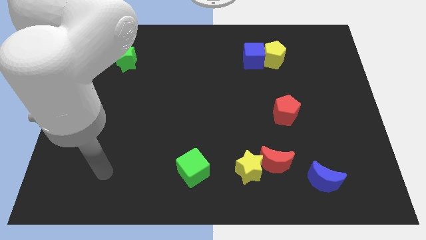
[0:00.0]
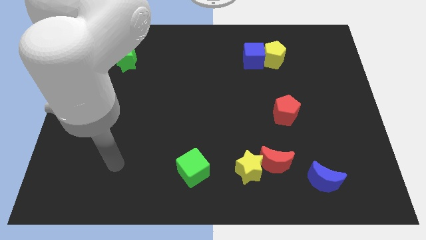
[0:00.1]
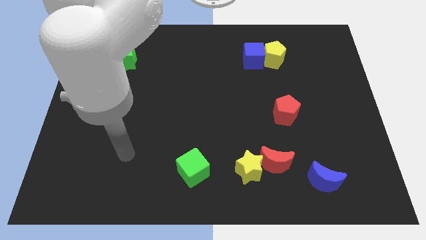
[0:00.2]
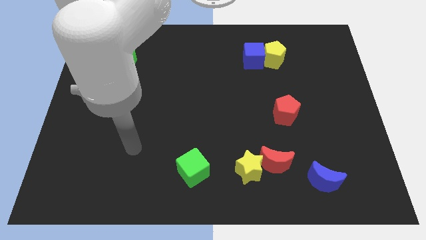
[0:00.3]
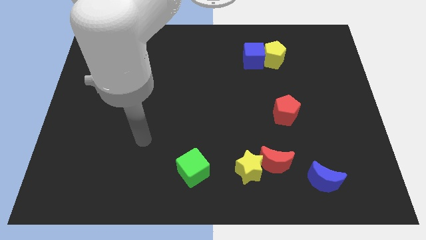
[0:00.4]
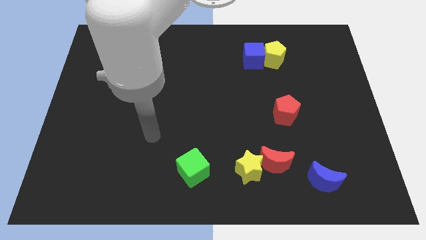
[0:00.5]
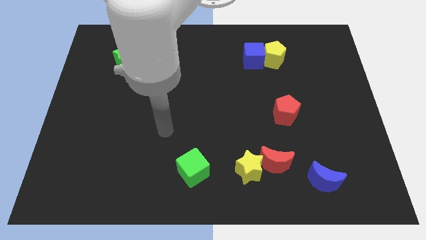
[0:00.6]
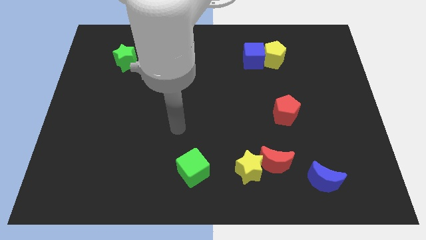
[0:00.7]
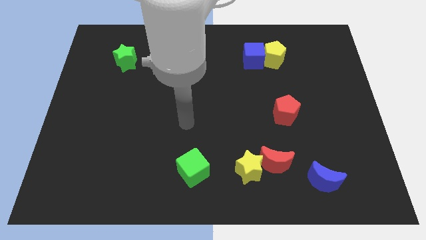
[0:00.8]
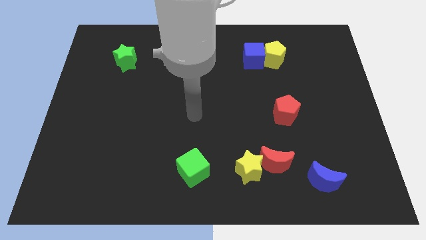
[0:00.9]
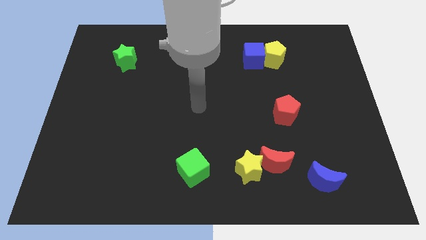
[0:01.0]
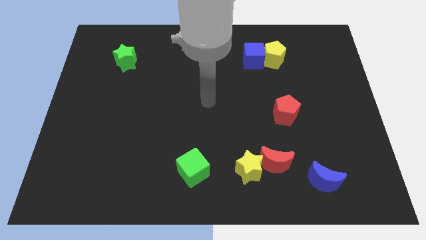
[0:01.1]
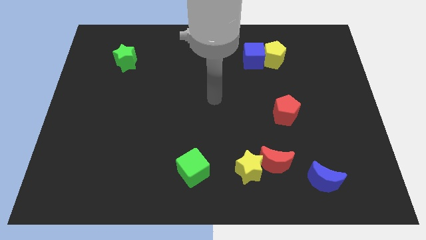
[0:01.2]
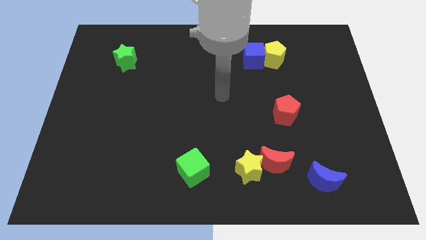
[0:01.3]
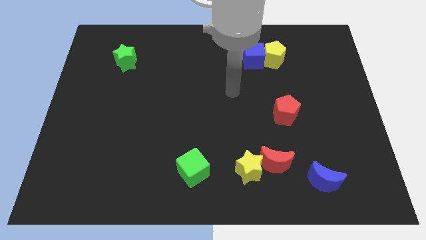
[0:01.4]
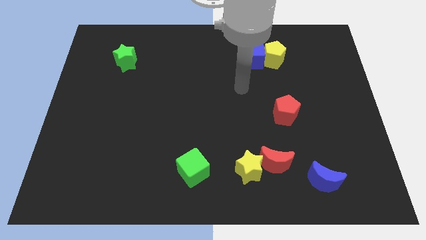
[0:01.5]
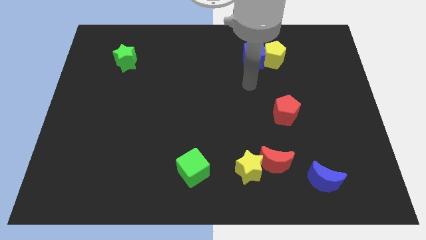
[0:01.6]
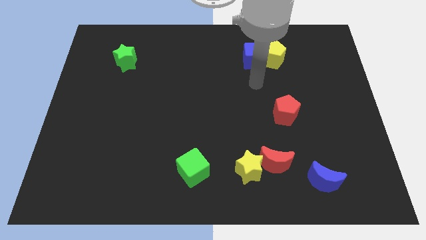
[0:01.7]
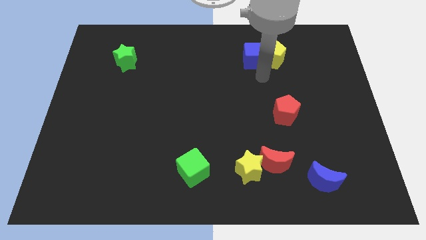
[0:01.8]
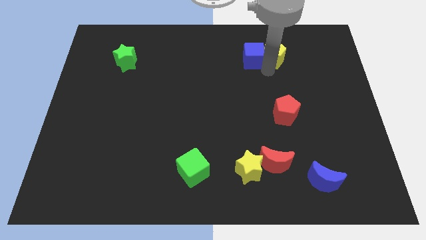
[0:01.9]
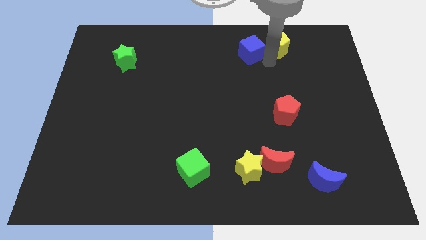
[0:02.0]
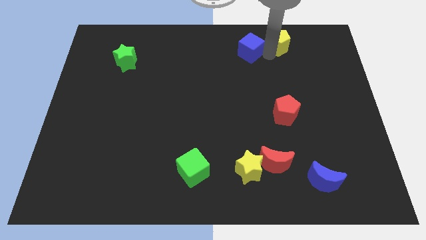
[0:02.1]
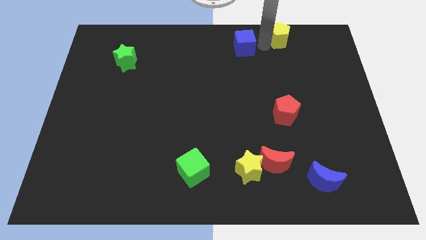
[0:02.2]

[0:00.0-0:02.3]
move the blue cube away from the yellow pentagon

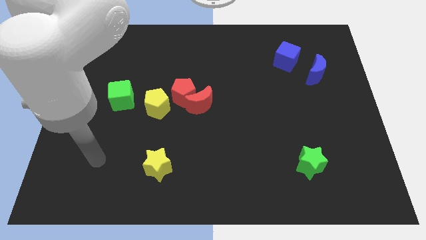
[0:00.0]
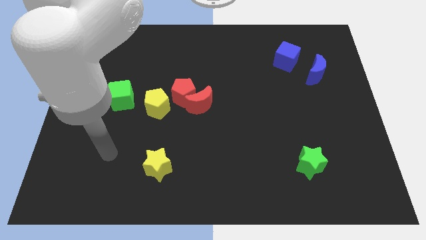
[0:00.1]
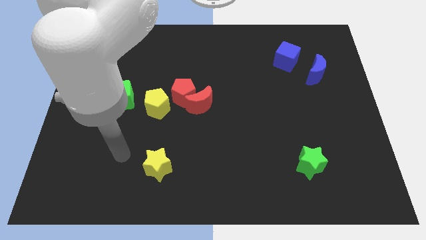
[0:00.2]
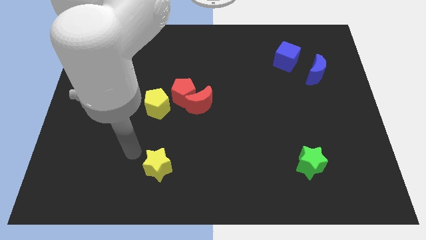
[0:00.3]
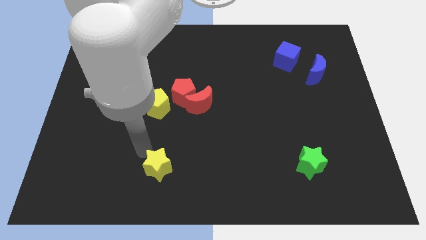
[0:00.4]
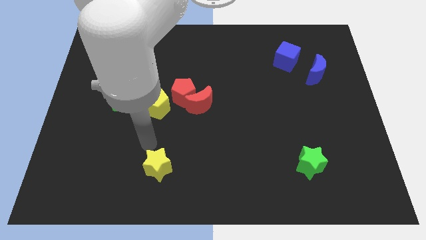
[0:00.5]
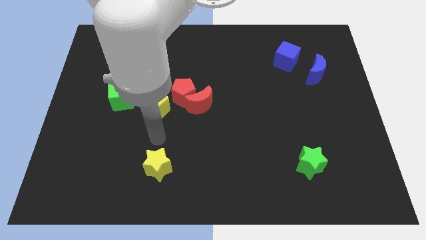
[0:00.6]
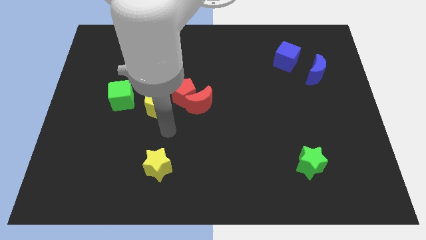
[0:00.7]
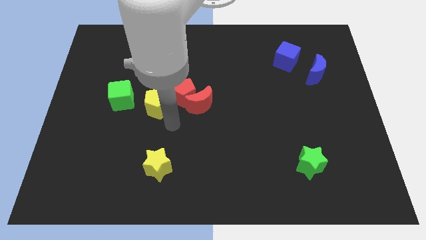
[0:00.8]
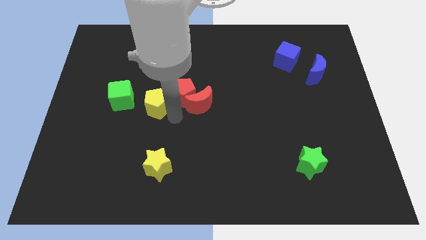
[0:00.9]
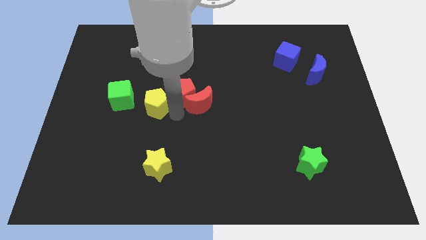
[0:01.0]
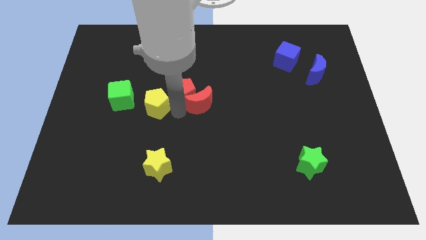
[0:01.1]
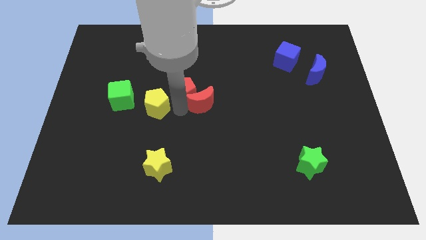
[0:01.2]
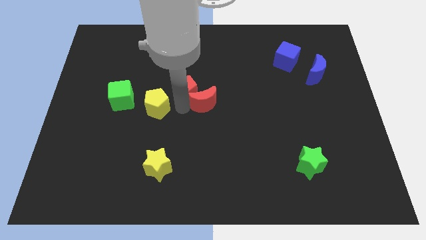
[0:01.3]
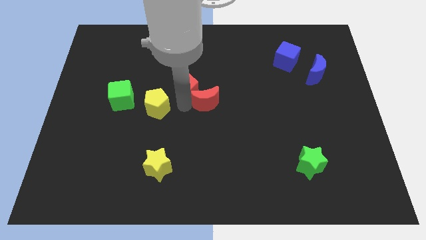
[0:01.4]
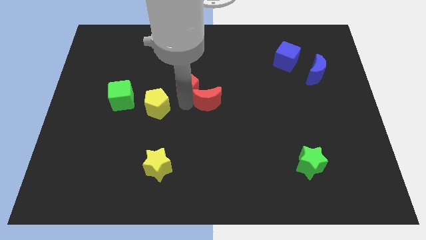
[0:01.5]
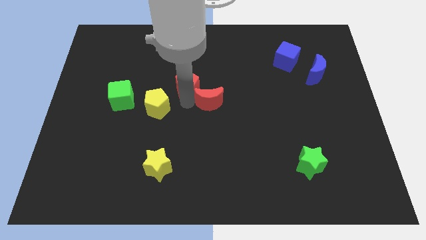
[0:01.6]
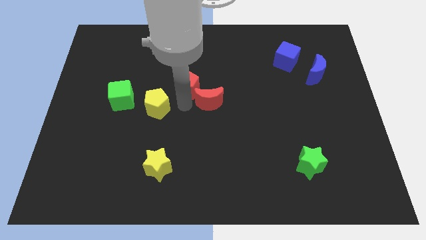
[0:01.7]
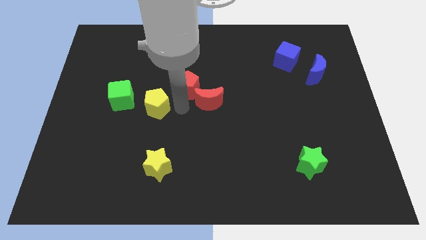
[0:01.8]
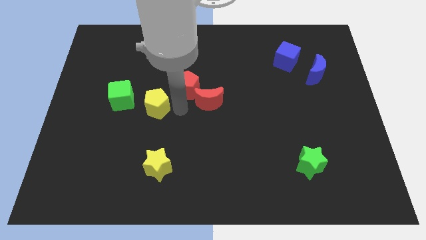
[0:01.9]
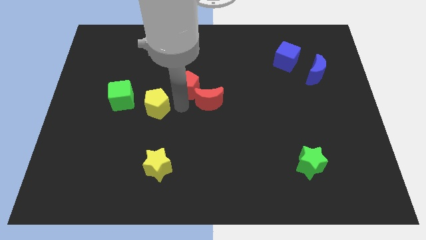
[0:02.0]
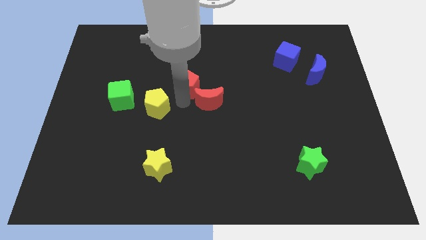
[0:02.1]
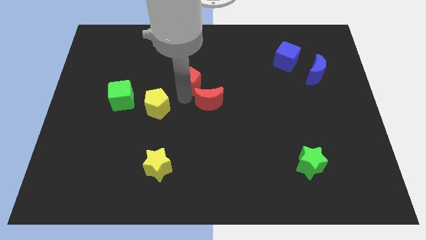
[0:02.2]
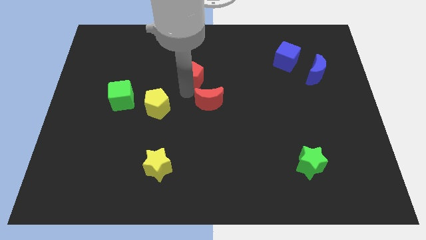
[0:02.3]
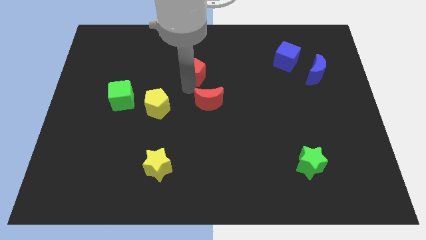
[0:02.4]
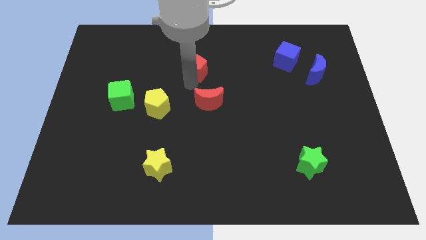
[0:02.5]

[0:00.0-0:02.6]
separate the red pentagon from the red moon and yellow pentagon

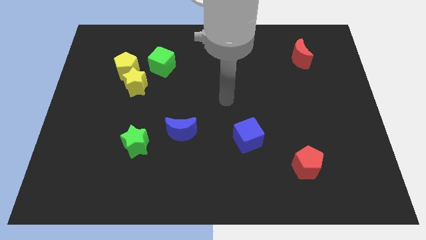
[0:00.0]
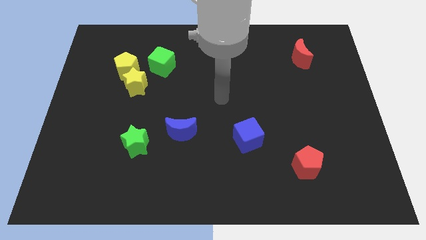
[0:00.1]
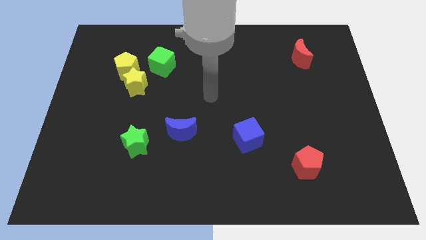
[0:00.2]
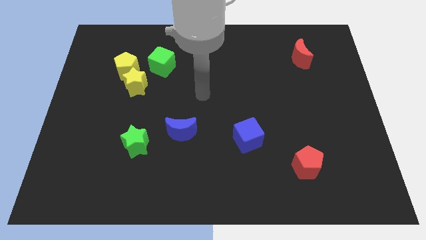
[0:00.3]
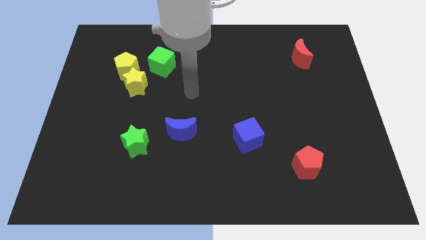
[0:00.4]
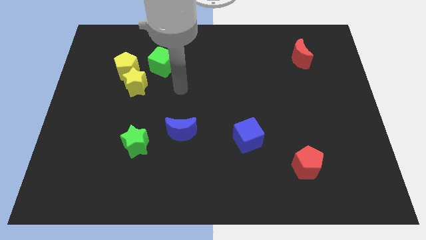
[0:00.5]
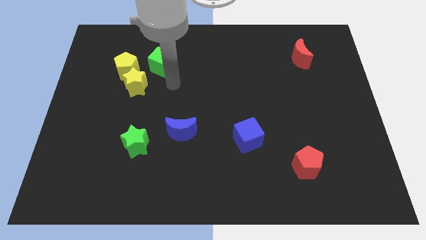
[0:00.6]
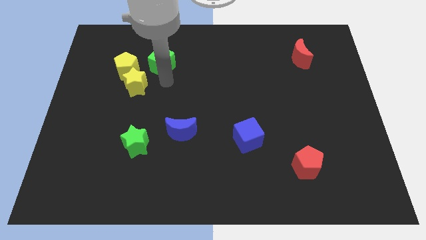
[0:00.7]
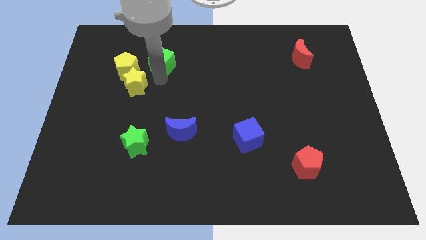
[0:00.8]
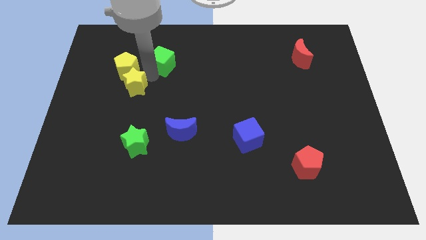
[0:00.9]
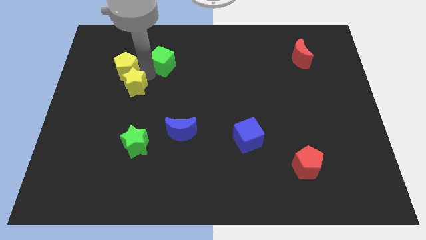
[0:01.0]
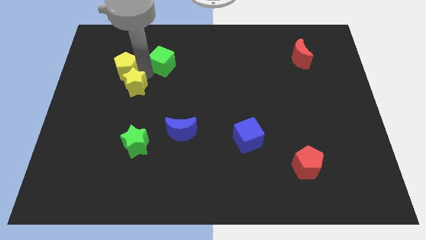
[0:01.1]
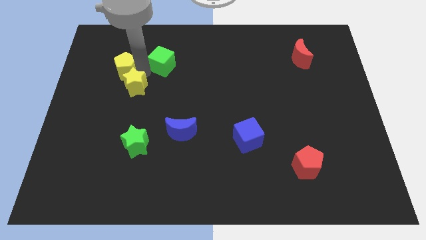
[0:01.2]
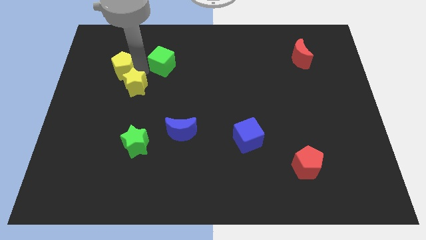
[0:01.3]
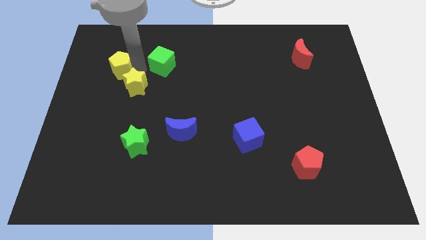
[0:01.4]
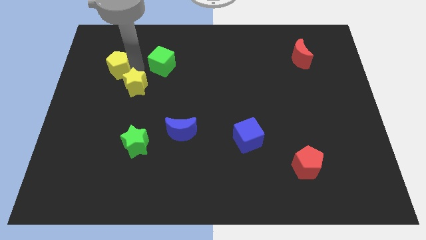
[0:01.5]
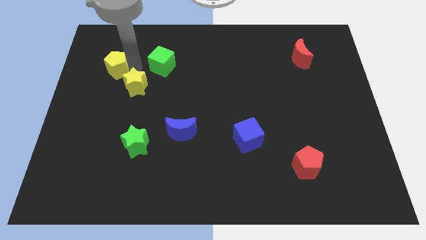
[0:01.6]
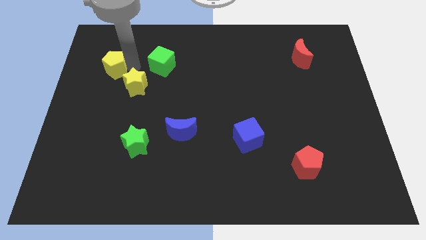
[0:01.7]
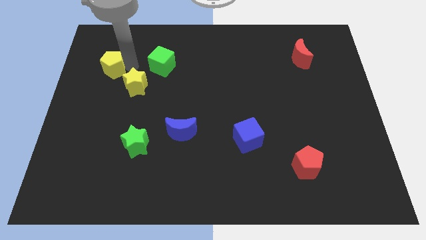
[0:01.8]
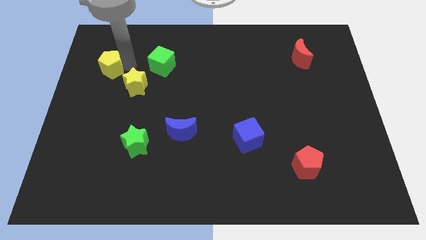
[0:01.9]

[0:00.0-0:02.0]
separate the yellow pentagon from the yellow star and green cube

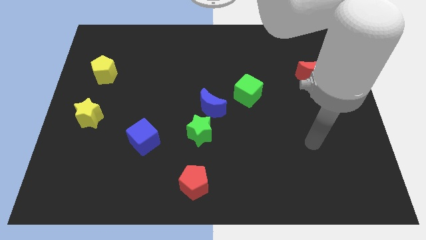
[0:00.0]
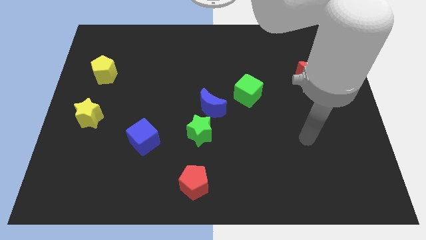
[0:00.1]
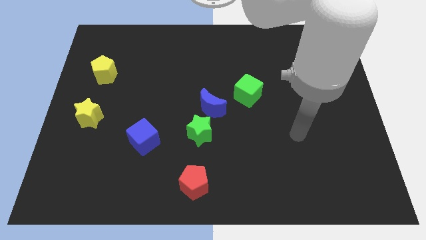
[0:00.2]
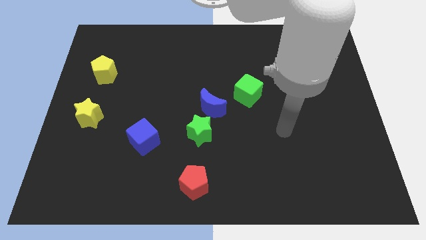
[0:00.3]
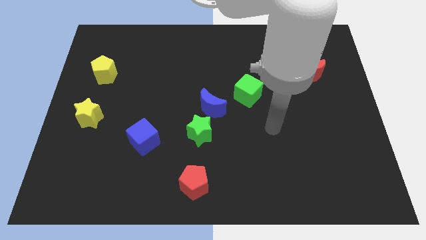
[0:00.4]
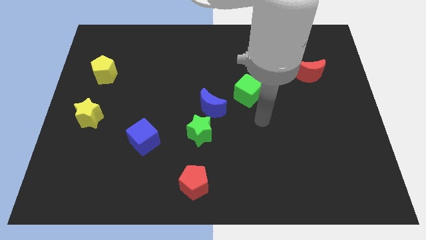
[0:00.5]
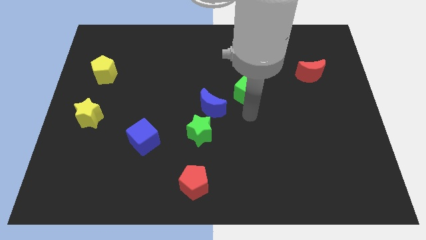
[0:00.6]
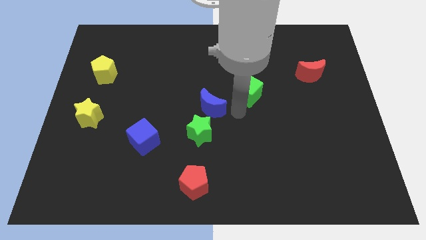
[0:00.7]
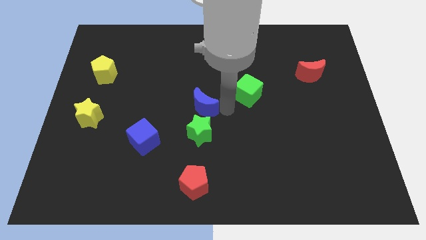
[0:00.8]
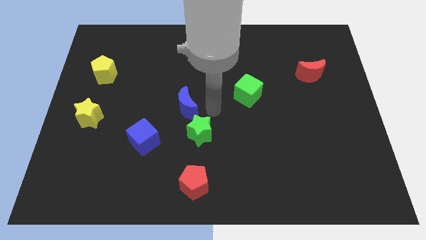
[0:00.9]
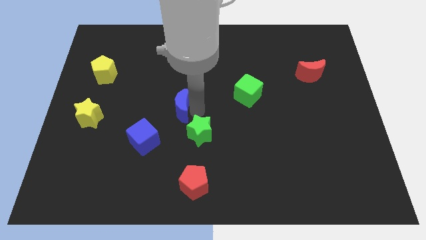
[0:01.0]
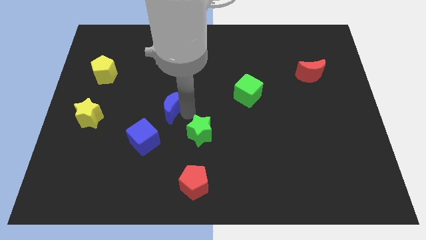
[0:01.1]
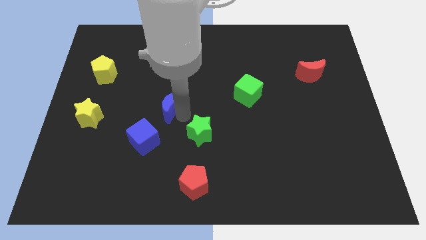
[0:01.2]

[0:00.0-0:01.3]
separate the green star from the blue moon

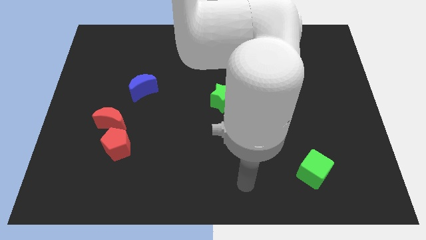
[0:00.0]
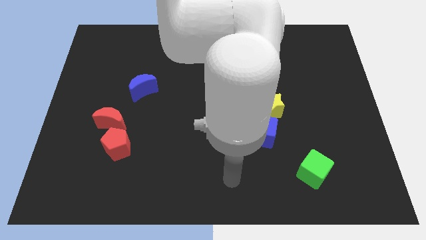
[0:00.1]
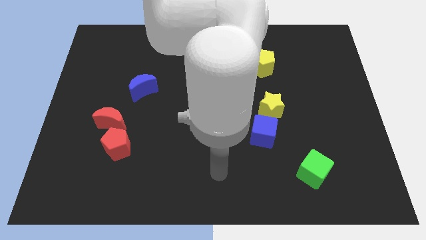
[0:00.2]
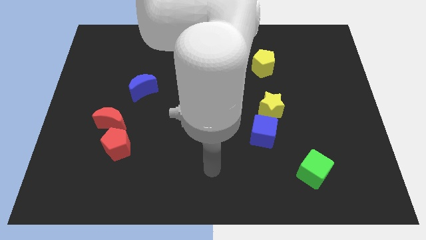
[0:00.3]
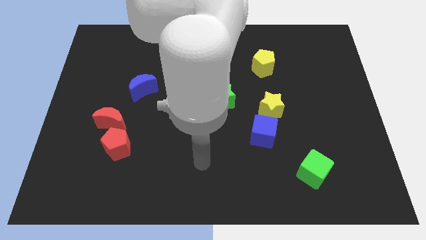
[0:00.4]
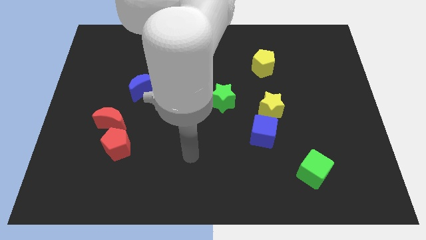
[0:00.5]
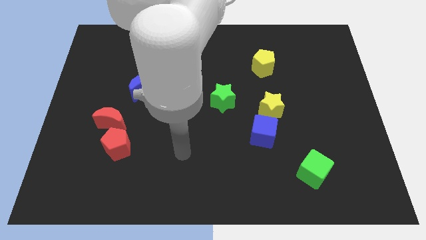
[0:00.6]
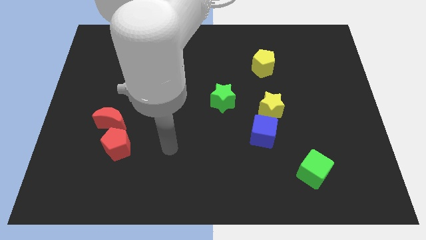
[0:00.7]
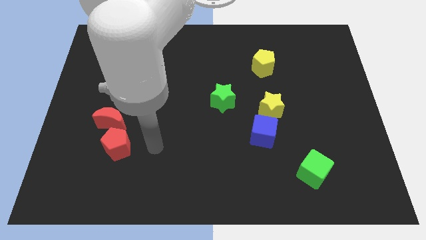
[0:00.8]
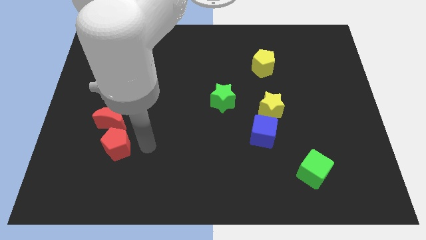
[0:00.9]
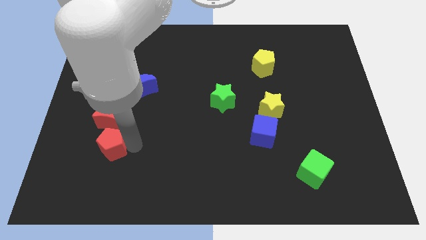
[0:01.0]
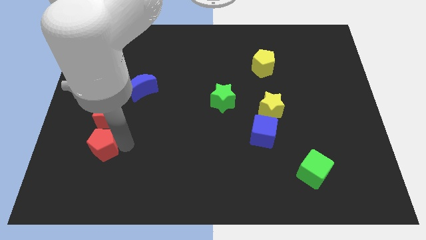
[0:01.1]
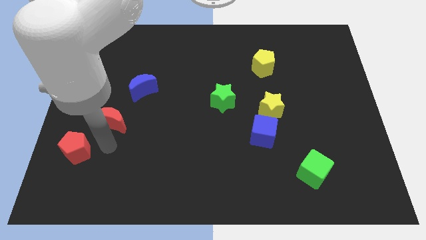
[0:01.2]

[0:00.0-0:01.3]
separate the red moon from the red pentagon
